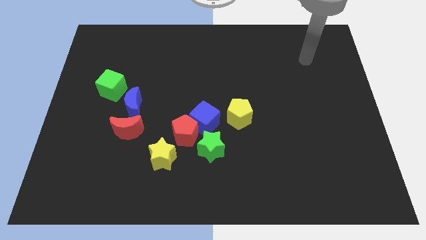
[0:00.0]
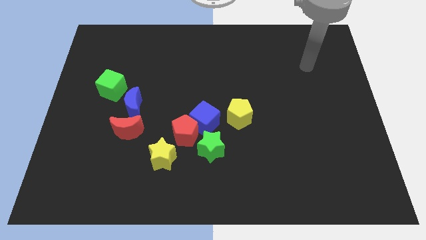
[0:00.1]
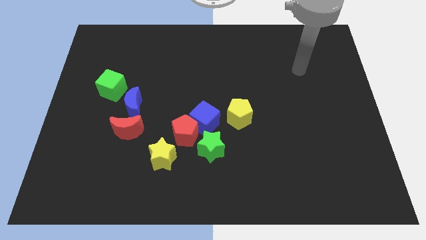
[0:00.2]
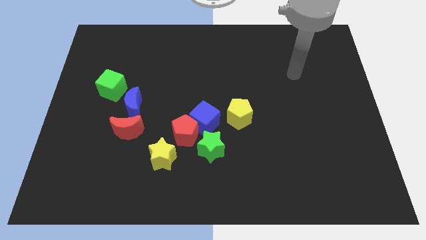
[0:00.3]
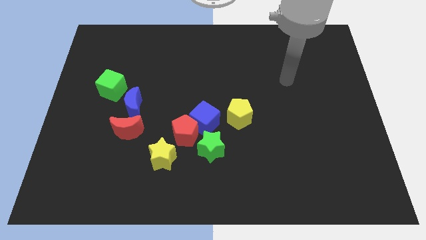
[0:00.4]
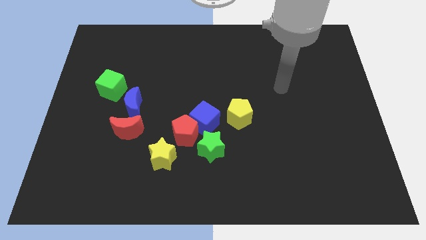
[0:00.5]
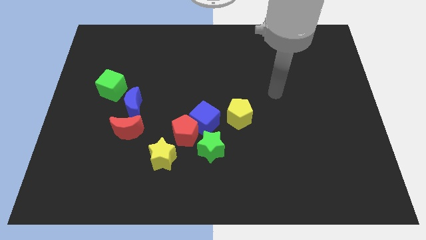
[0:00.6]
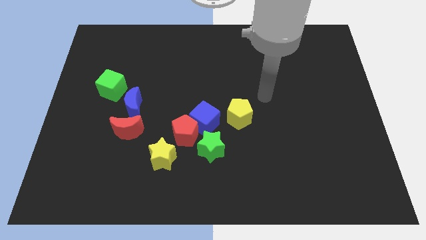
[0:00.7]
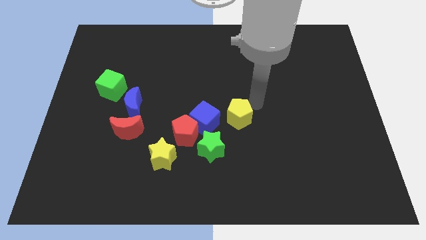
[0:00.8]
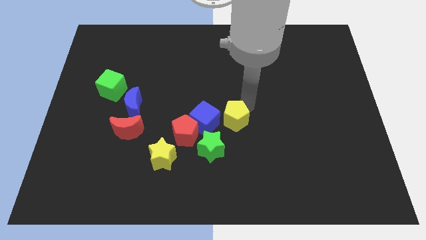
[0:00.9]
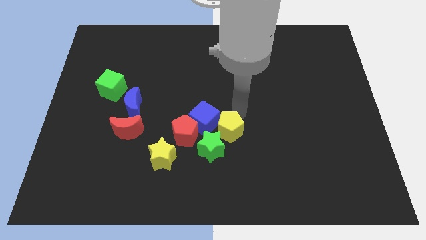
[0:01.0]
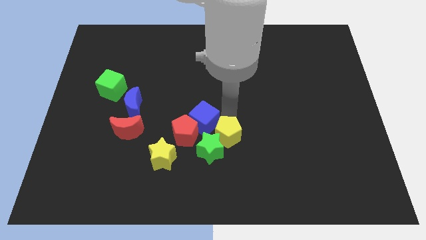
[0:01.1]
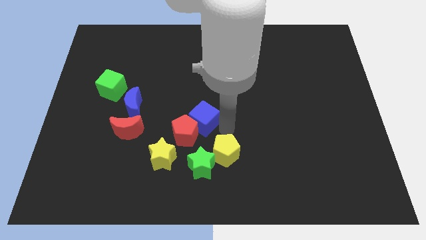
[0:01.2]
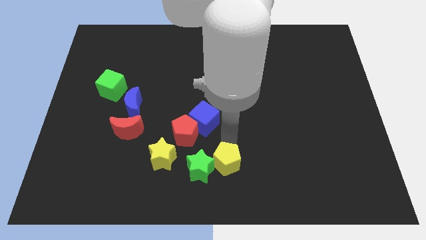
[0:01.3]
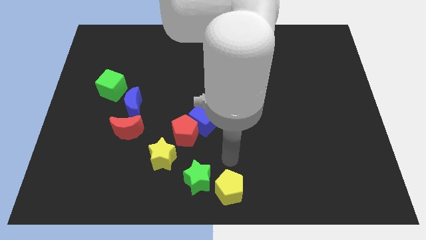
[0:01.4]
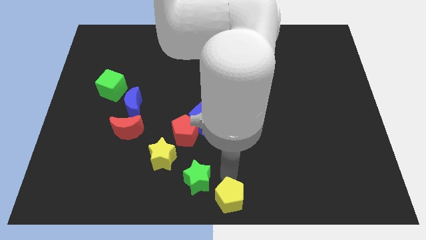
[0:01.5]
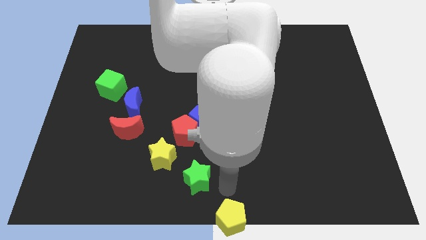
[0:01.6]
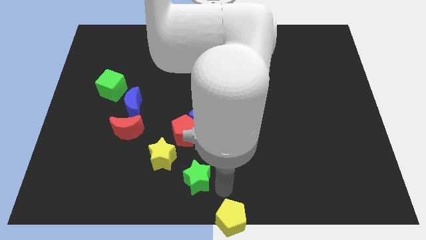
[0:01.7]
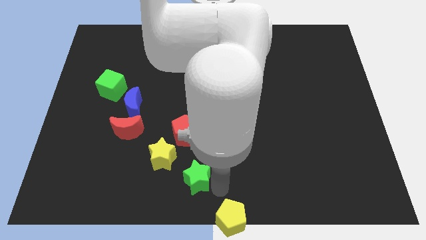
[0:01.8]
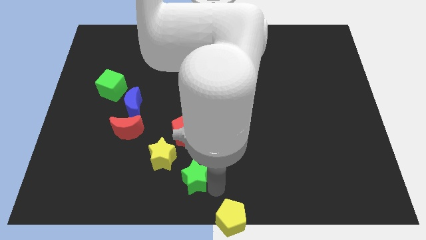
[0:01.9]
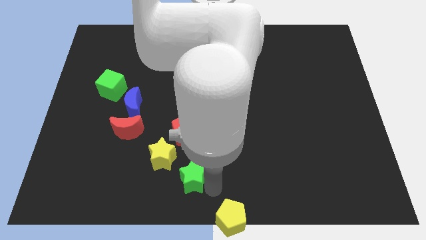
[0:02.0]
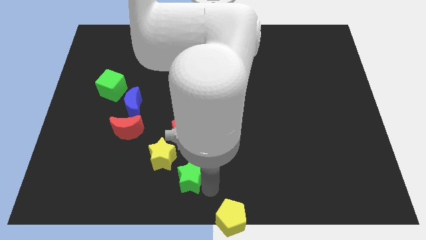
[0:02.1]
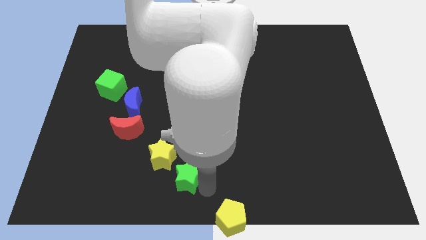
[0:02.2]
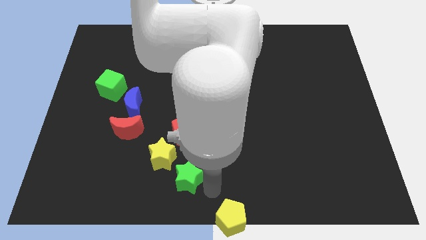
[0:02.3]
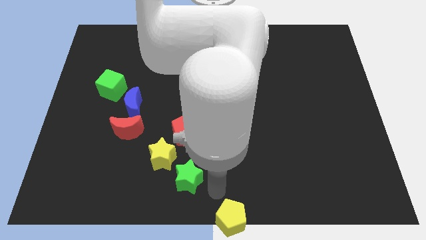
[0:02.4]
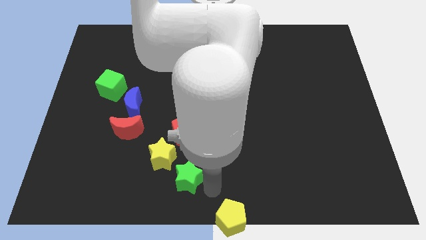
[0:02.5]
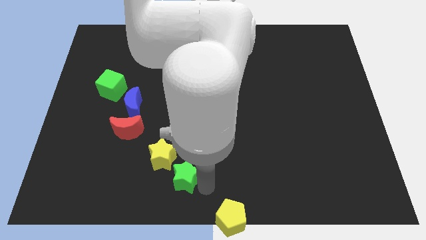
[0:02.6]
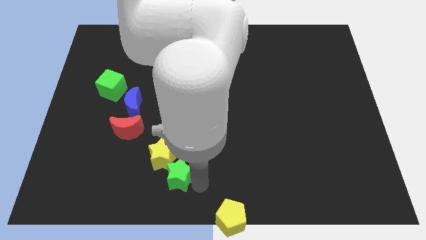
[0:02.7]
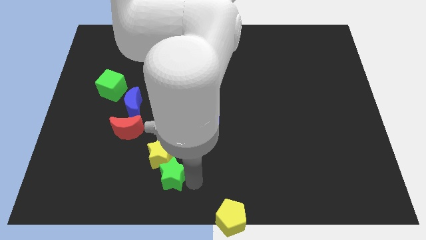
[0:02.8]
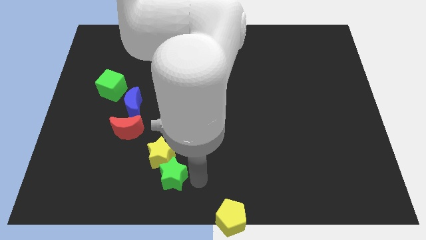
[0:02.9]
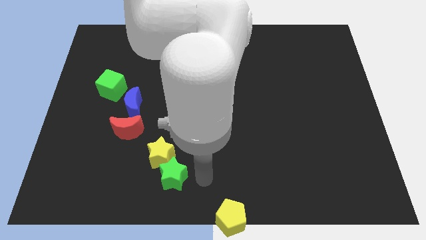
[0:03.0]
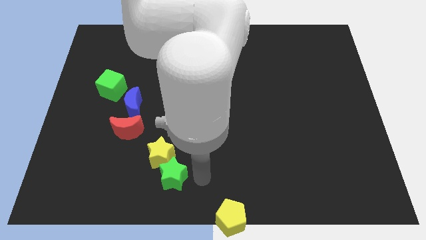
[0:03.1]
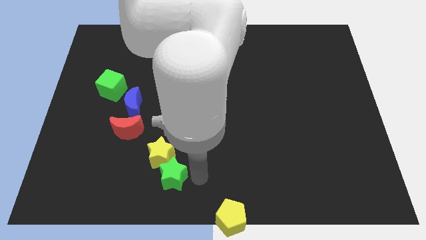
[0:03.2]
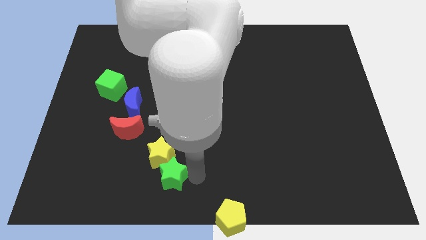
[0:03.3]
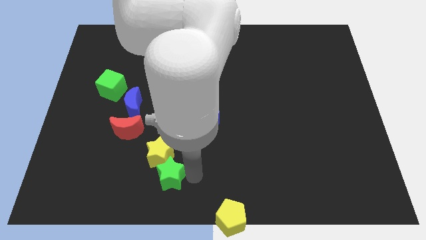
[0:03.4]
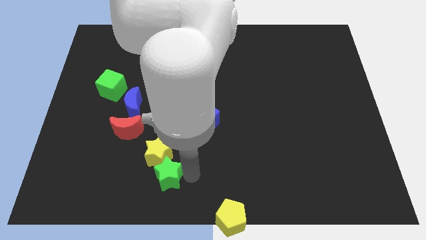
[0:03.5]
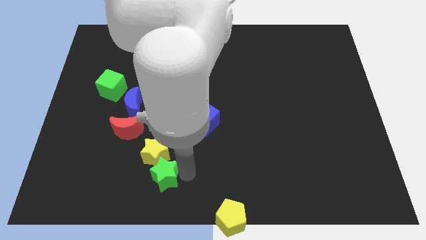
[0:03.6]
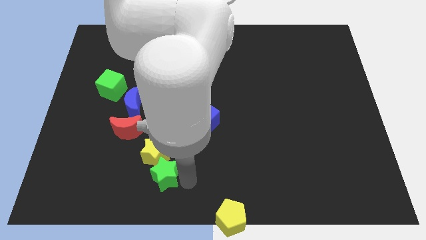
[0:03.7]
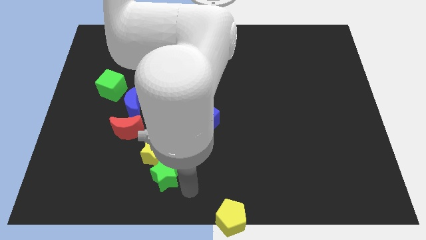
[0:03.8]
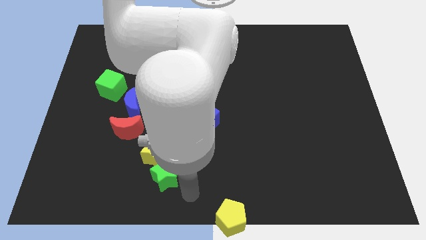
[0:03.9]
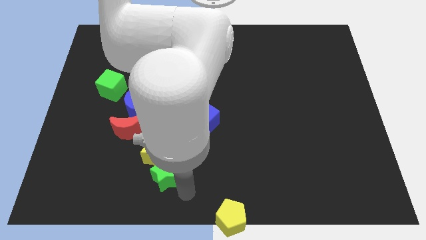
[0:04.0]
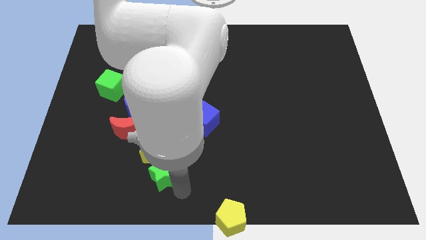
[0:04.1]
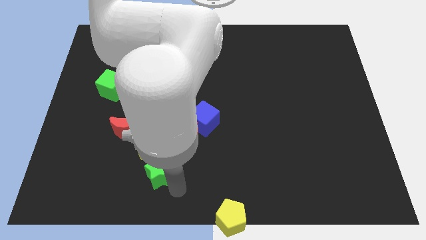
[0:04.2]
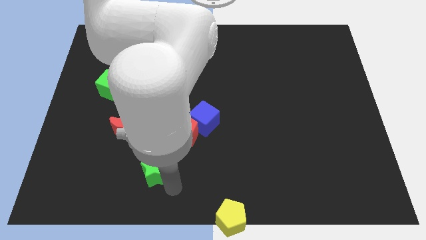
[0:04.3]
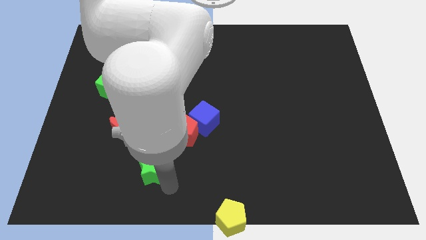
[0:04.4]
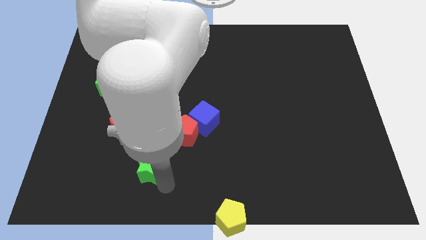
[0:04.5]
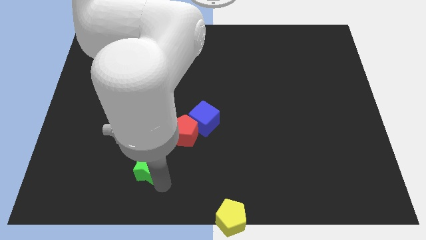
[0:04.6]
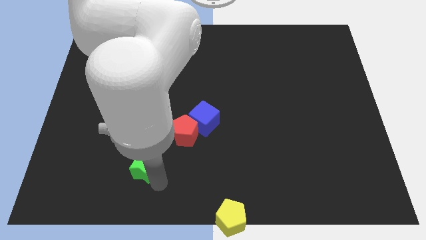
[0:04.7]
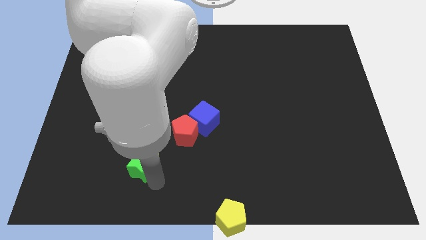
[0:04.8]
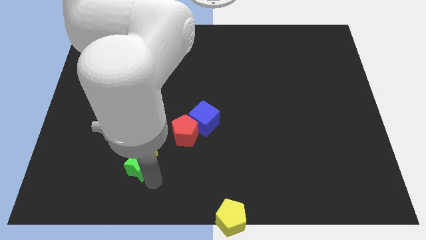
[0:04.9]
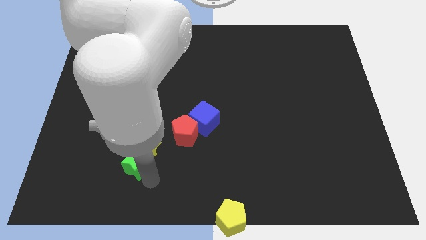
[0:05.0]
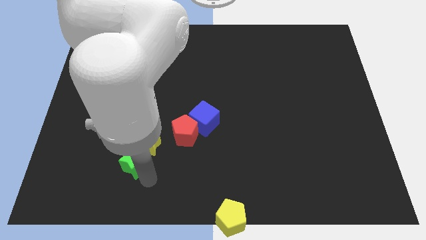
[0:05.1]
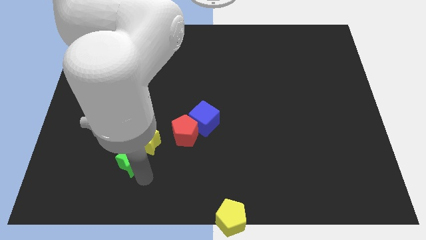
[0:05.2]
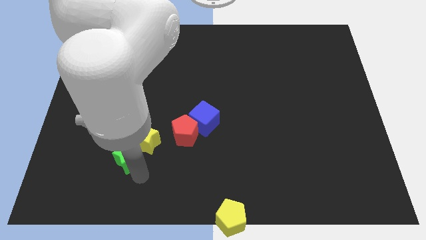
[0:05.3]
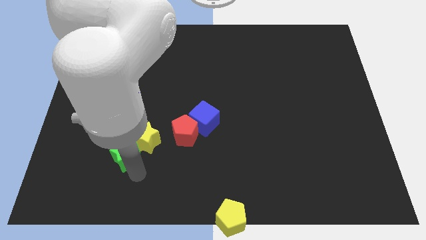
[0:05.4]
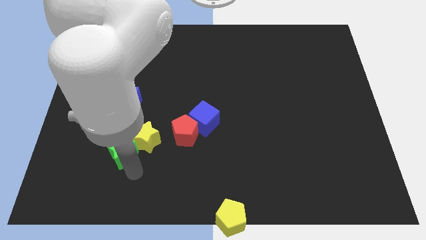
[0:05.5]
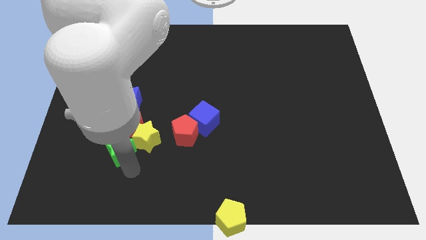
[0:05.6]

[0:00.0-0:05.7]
move the green star towards the red moon

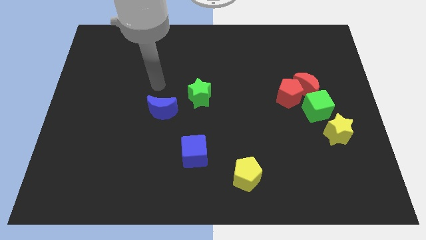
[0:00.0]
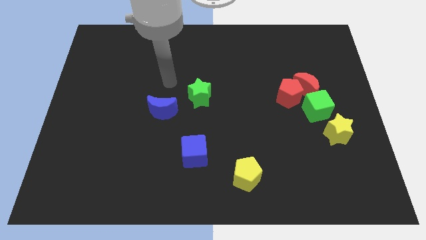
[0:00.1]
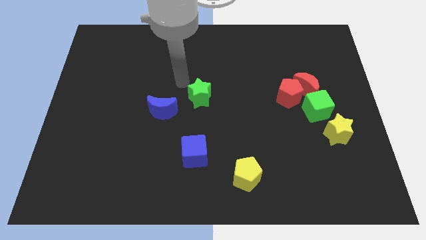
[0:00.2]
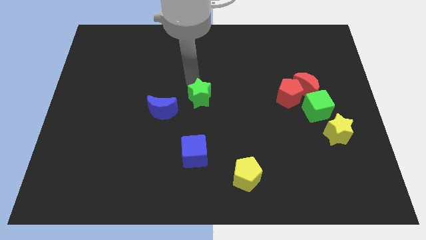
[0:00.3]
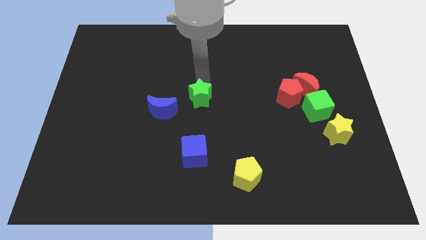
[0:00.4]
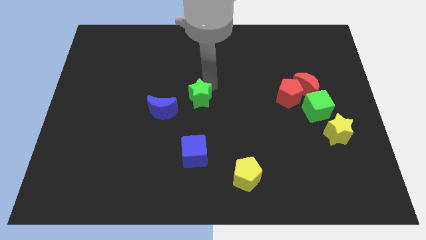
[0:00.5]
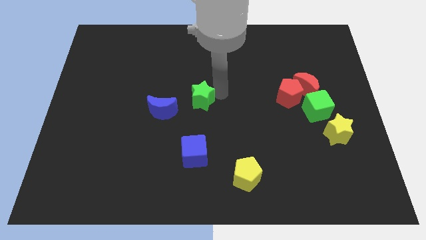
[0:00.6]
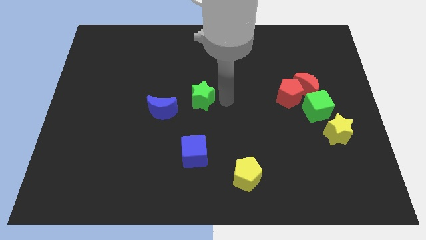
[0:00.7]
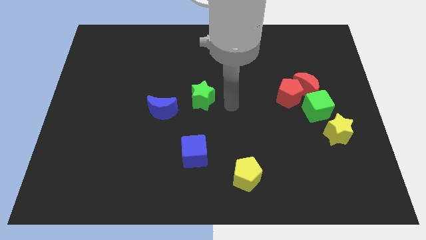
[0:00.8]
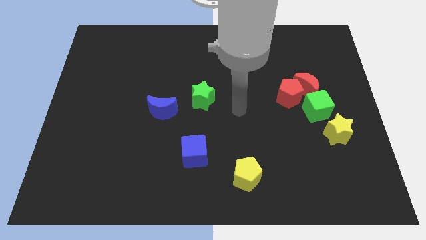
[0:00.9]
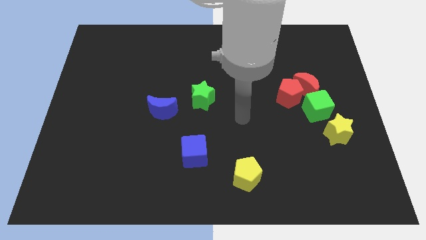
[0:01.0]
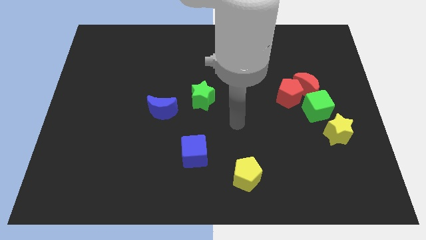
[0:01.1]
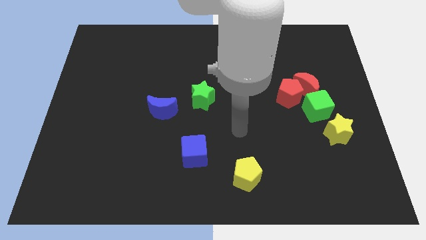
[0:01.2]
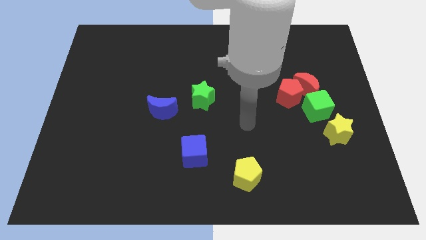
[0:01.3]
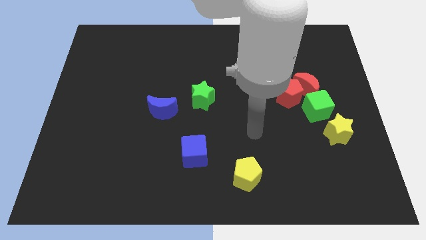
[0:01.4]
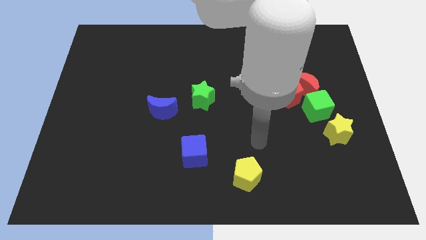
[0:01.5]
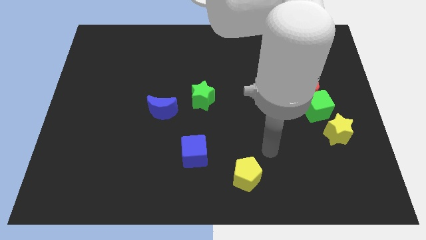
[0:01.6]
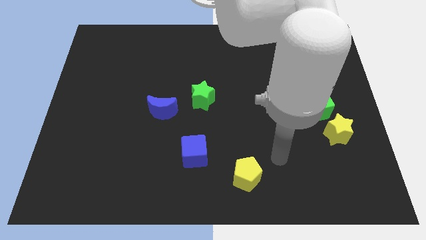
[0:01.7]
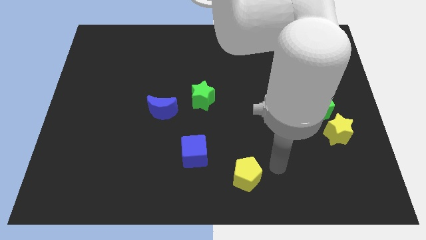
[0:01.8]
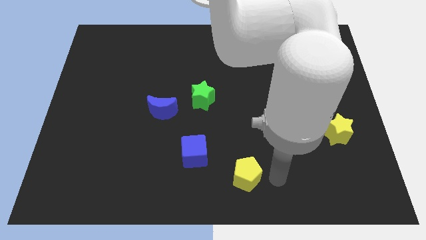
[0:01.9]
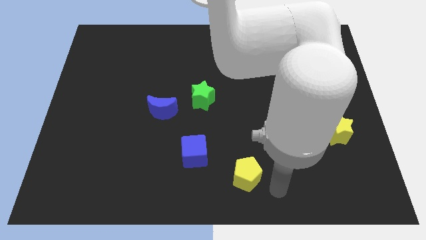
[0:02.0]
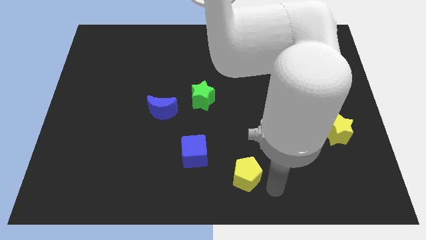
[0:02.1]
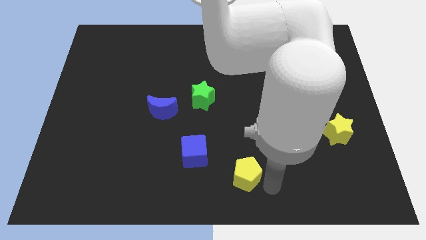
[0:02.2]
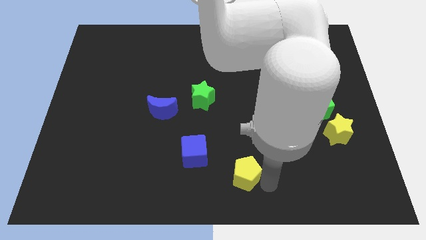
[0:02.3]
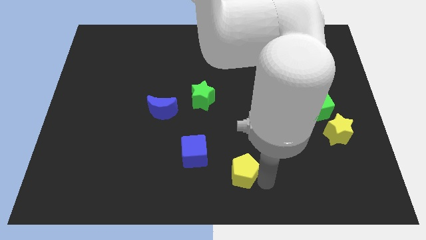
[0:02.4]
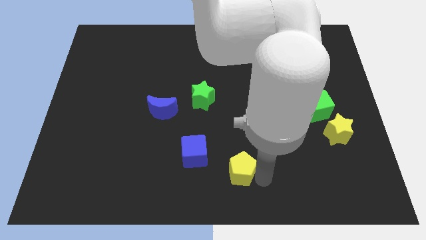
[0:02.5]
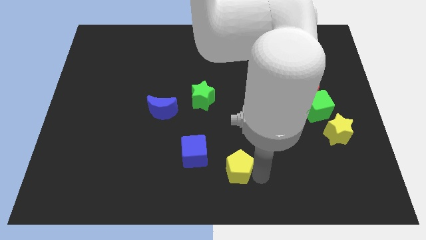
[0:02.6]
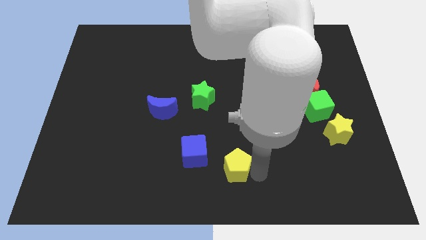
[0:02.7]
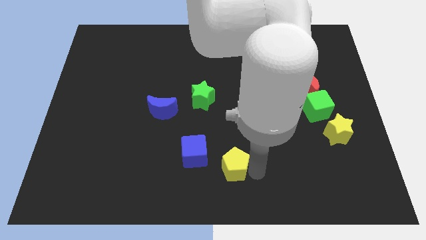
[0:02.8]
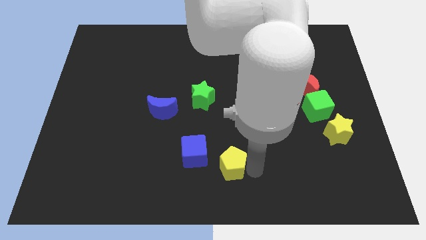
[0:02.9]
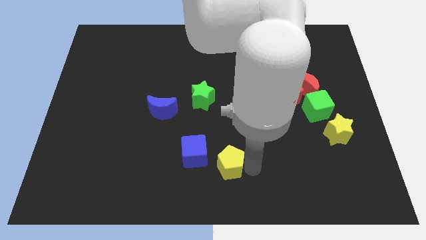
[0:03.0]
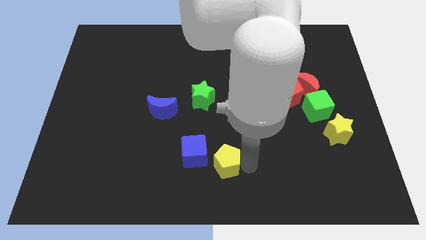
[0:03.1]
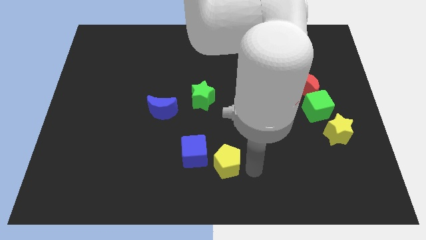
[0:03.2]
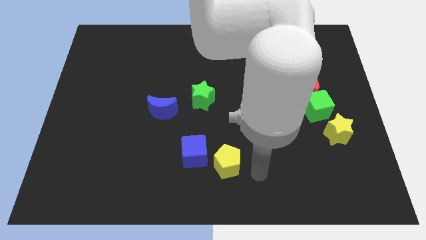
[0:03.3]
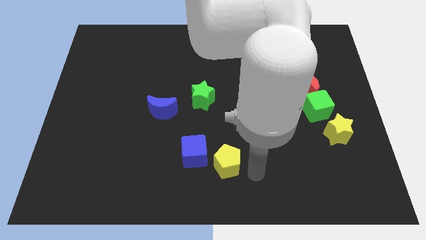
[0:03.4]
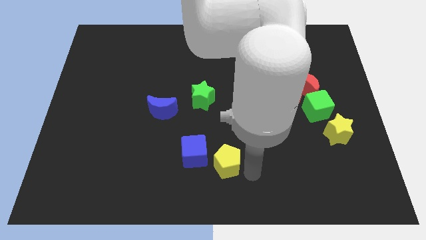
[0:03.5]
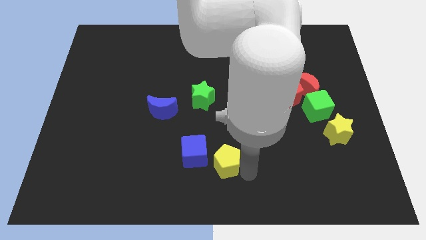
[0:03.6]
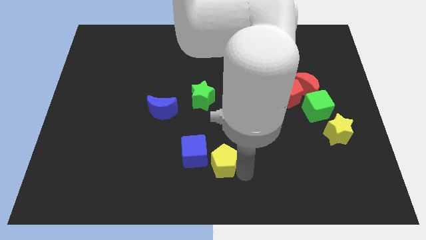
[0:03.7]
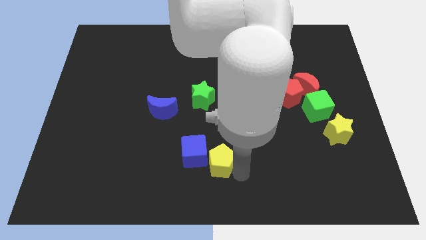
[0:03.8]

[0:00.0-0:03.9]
move the yellow pentagon close to the blue cube
